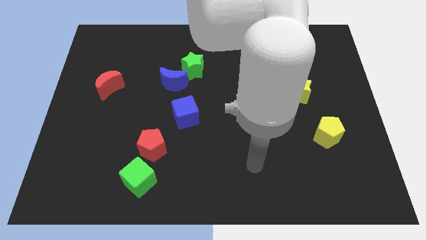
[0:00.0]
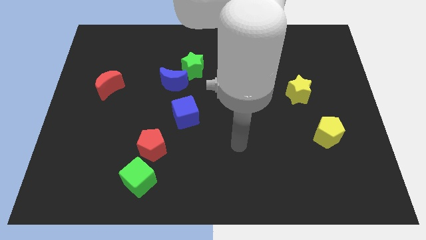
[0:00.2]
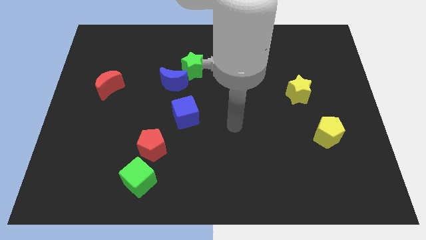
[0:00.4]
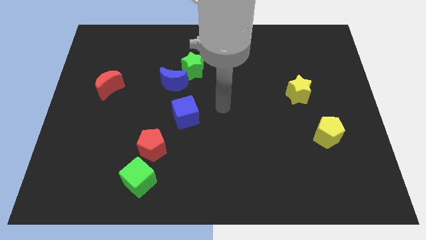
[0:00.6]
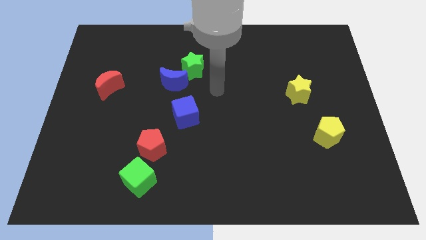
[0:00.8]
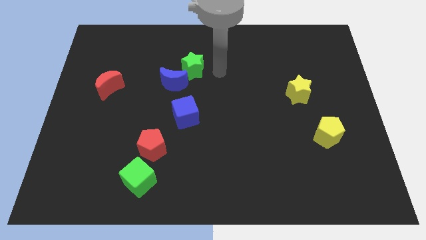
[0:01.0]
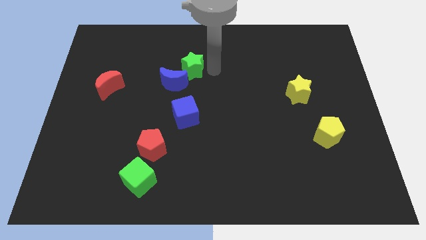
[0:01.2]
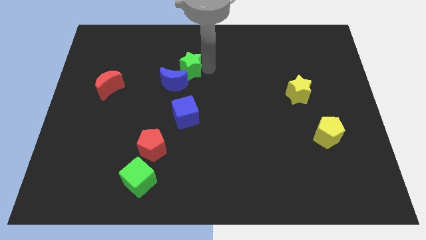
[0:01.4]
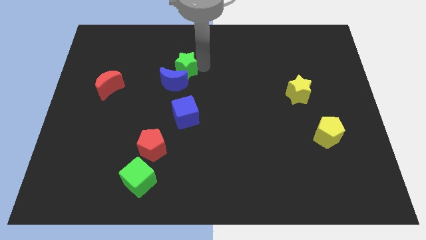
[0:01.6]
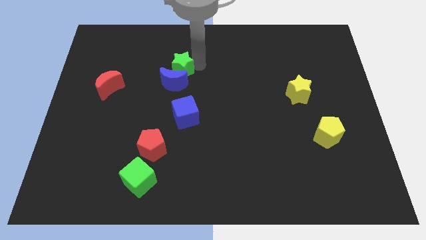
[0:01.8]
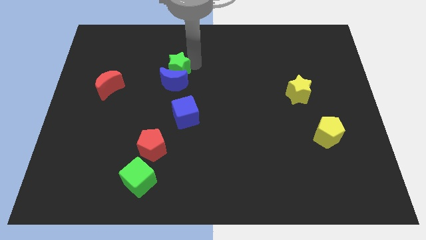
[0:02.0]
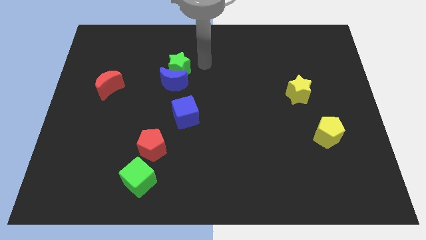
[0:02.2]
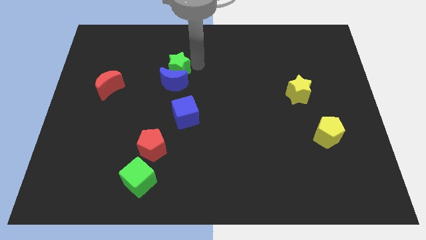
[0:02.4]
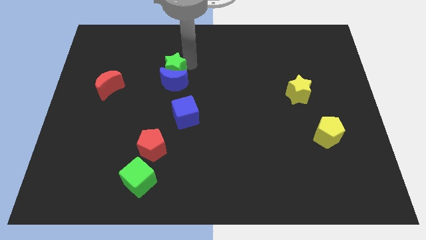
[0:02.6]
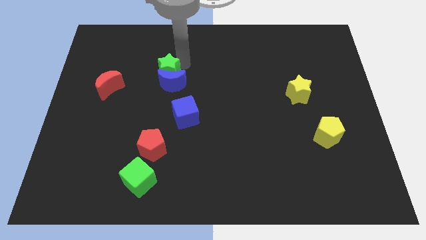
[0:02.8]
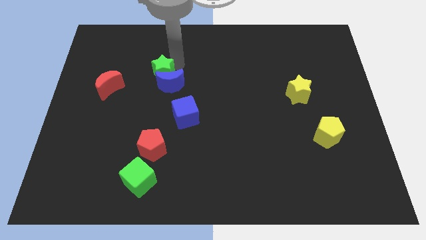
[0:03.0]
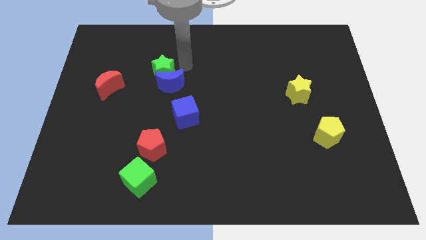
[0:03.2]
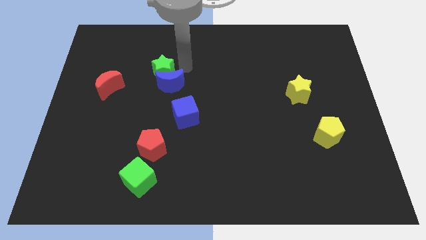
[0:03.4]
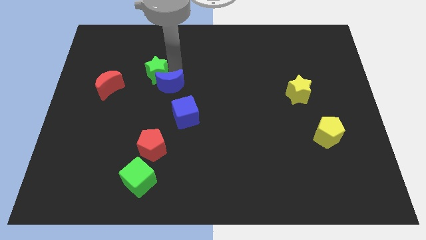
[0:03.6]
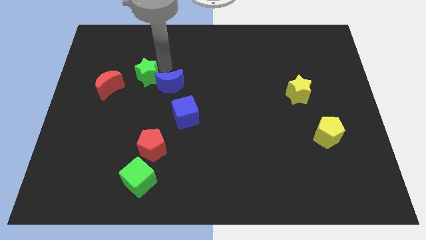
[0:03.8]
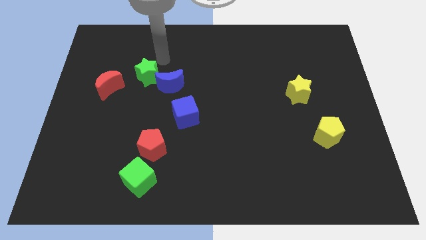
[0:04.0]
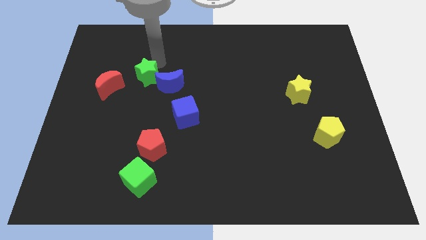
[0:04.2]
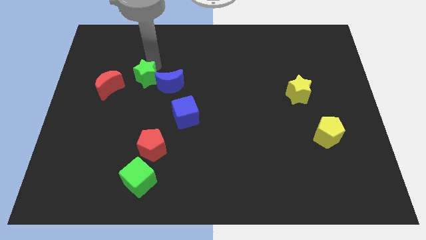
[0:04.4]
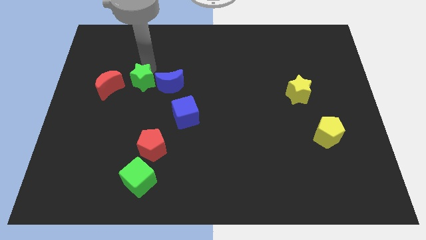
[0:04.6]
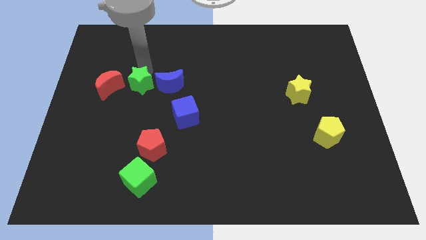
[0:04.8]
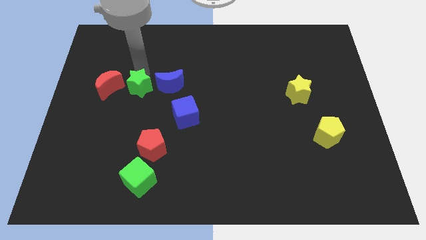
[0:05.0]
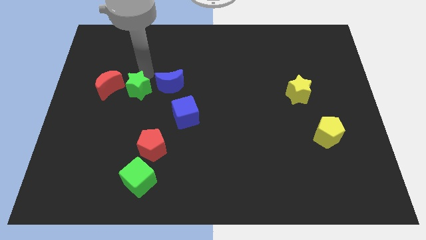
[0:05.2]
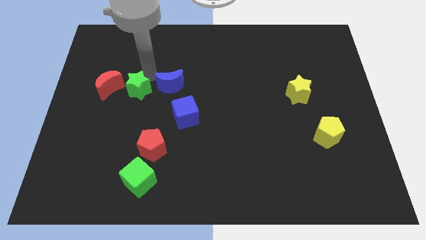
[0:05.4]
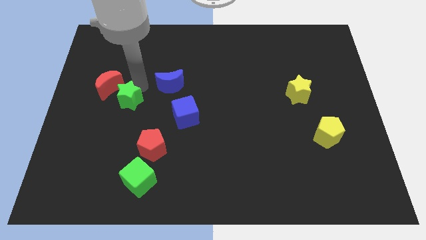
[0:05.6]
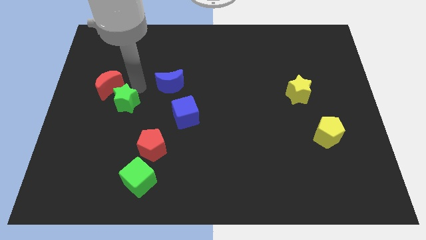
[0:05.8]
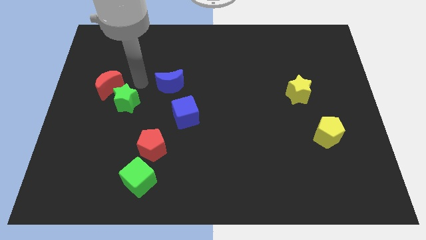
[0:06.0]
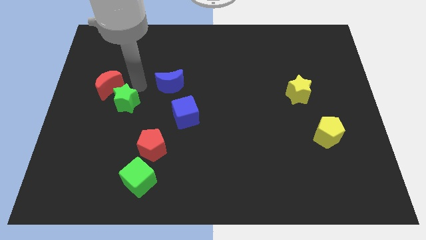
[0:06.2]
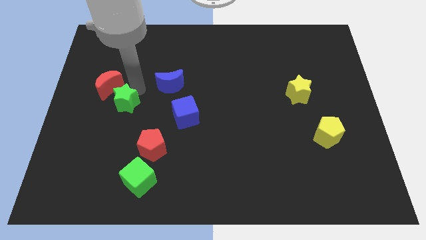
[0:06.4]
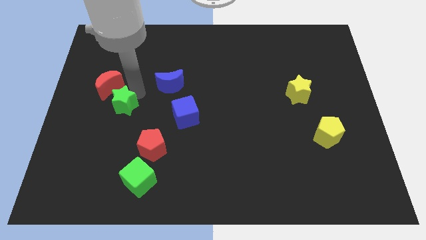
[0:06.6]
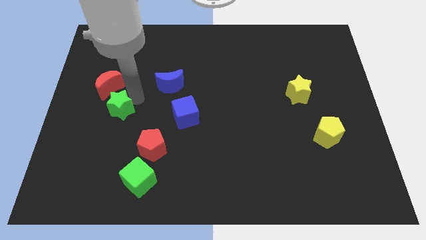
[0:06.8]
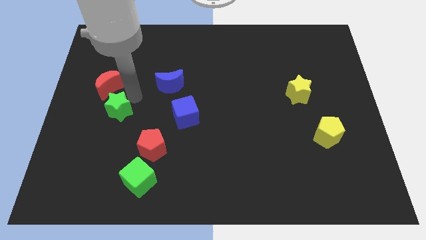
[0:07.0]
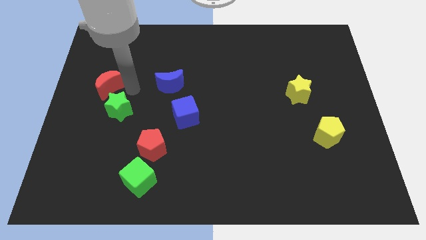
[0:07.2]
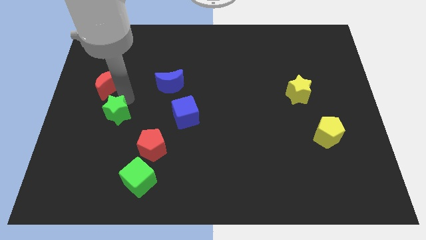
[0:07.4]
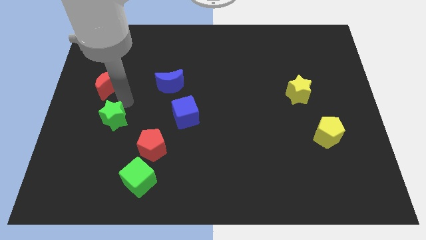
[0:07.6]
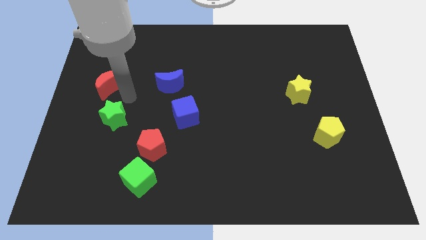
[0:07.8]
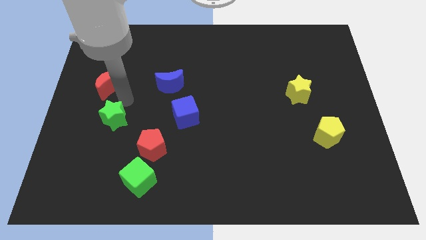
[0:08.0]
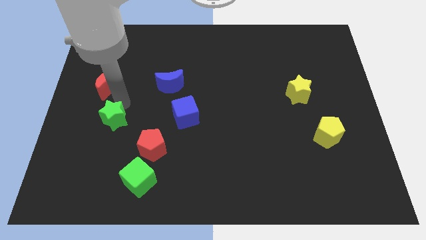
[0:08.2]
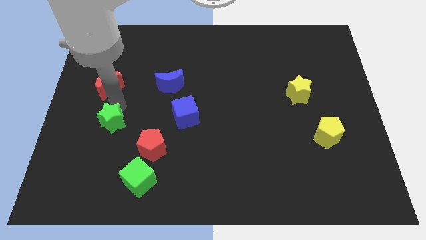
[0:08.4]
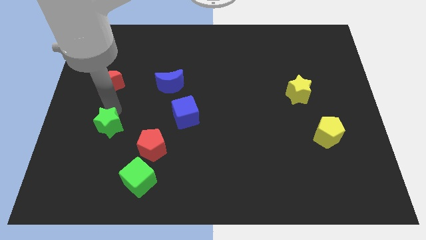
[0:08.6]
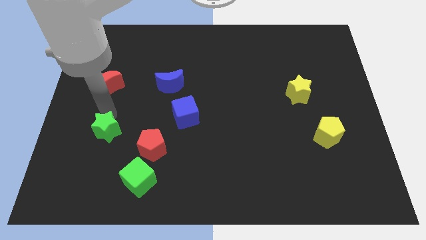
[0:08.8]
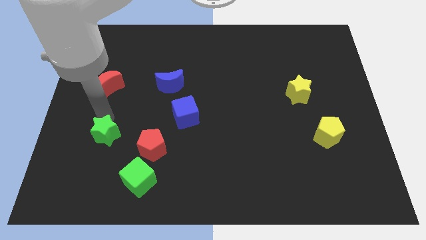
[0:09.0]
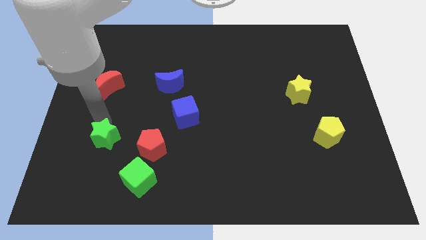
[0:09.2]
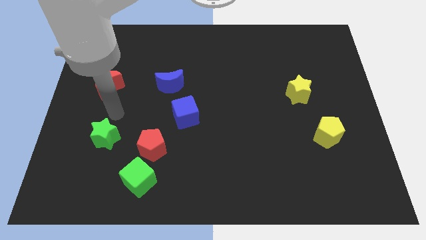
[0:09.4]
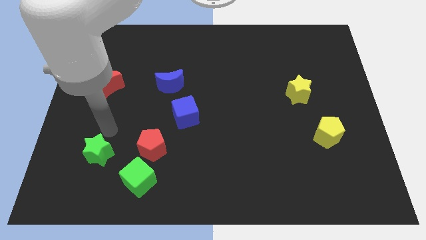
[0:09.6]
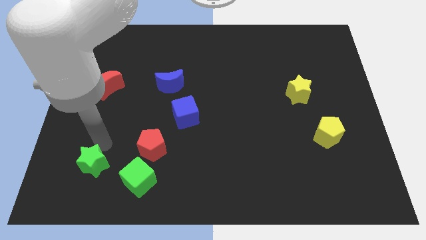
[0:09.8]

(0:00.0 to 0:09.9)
push the green star to the left of the green cube

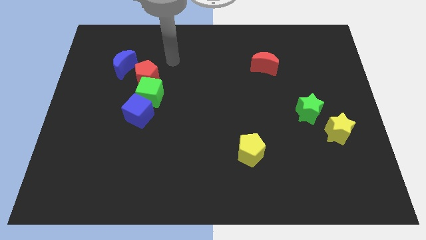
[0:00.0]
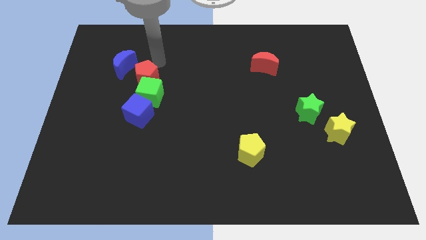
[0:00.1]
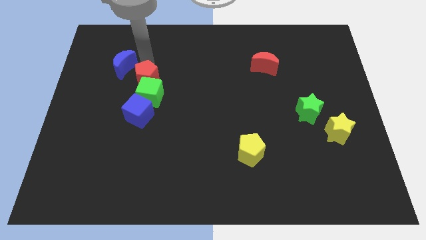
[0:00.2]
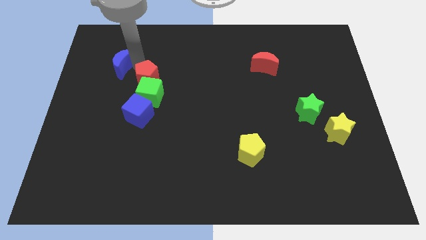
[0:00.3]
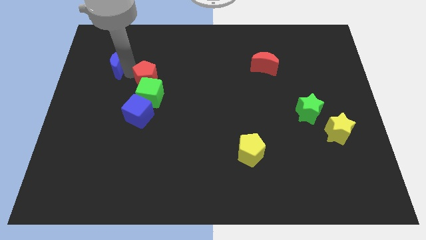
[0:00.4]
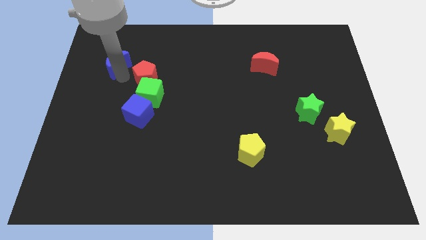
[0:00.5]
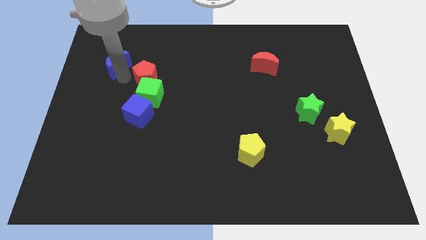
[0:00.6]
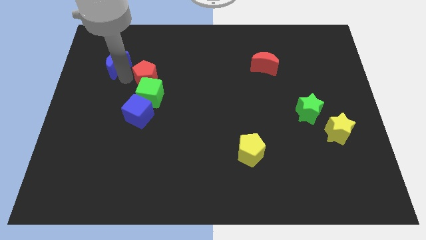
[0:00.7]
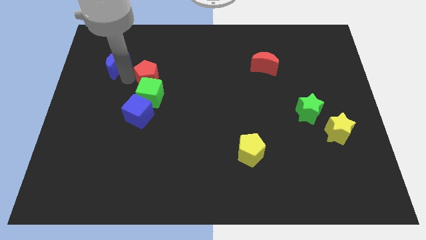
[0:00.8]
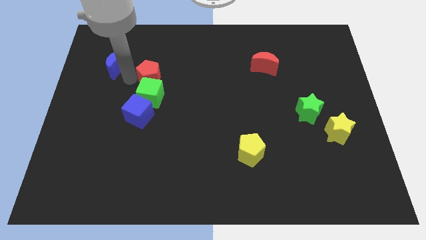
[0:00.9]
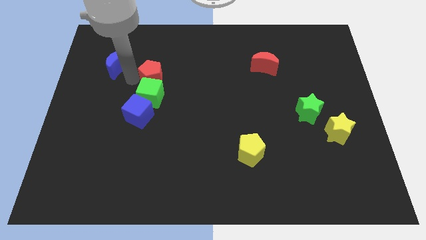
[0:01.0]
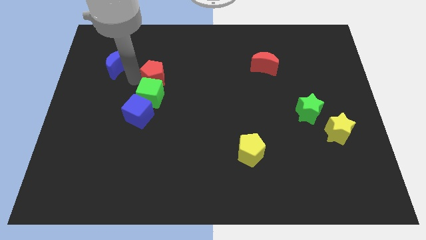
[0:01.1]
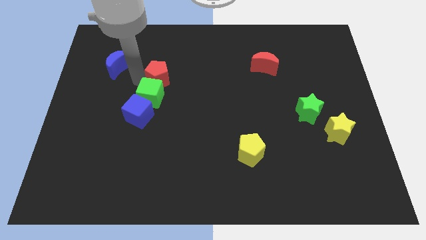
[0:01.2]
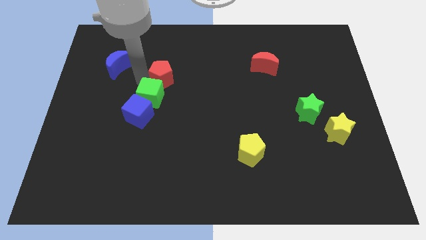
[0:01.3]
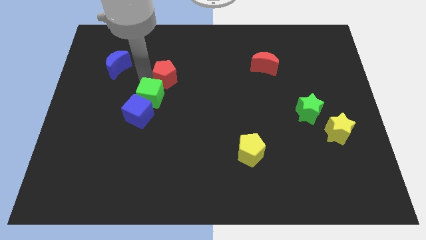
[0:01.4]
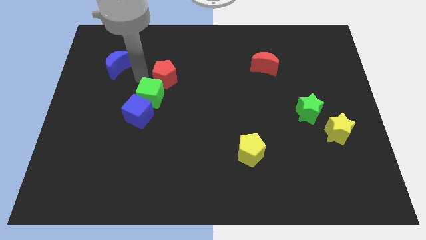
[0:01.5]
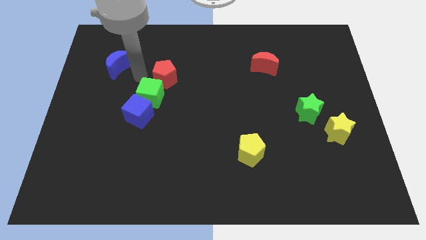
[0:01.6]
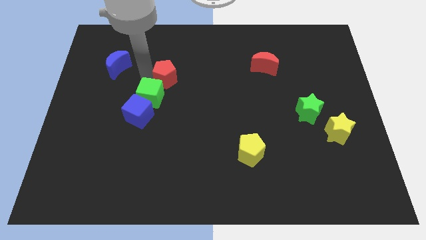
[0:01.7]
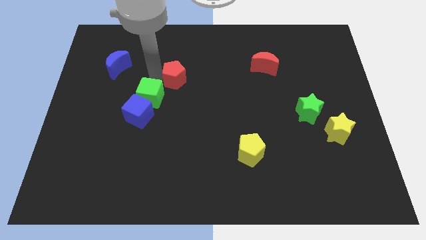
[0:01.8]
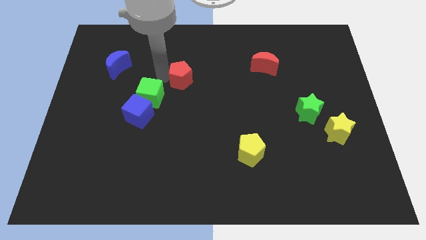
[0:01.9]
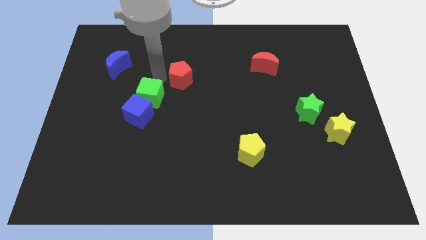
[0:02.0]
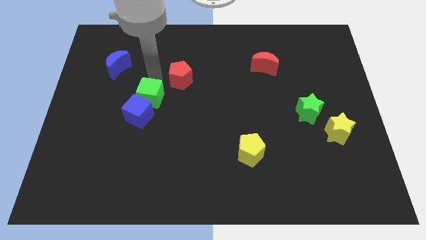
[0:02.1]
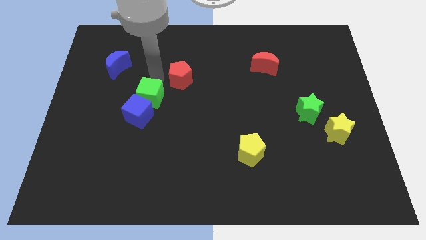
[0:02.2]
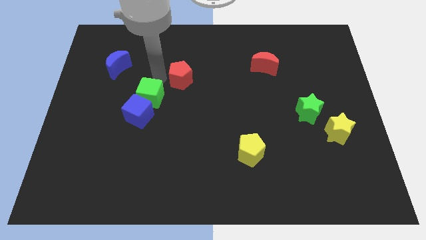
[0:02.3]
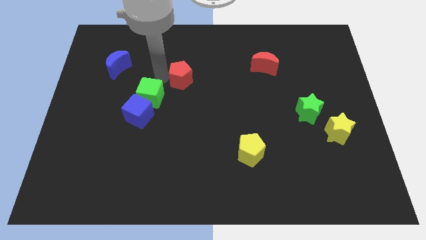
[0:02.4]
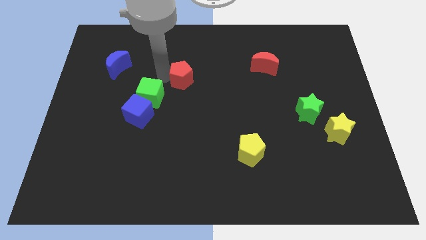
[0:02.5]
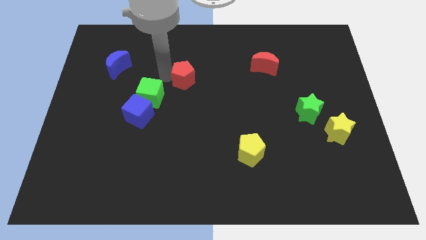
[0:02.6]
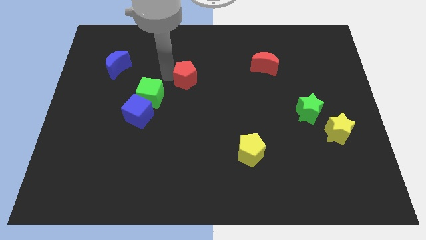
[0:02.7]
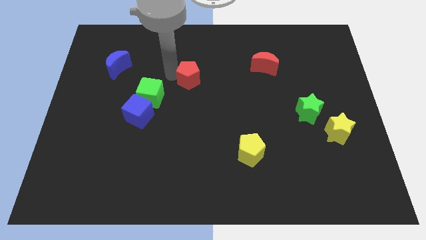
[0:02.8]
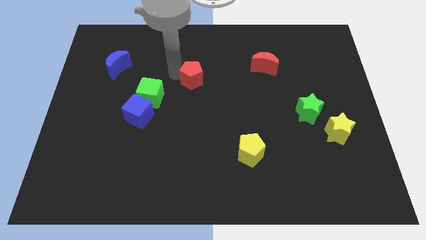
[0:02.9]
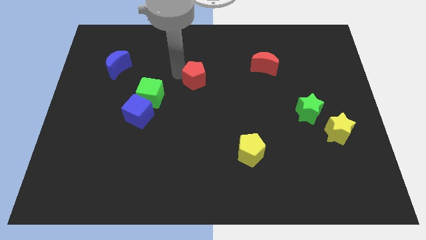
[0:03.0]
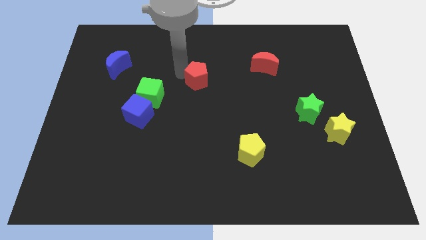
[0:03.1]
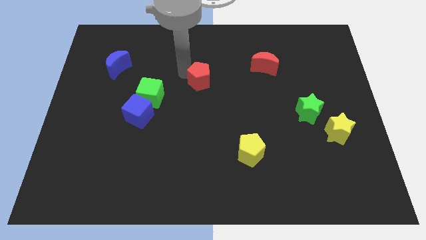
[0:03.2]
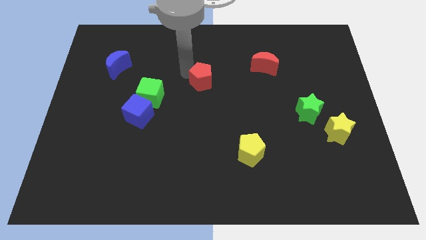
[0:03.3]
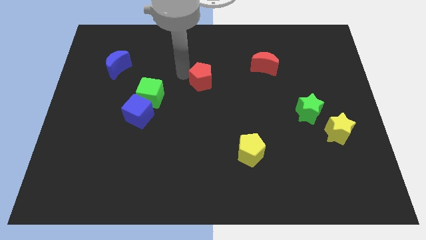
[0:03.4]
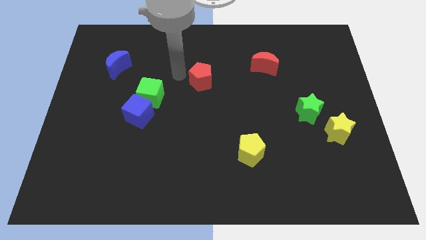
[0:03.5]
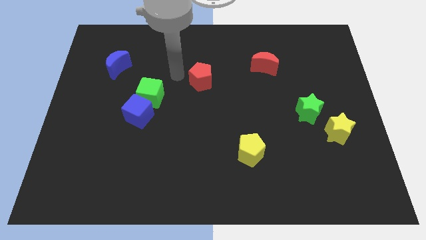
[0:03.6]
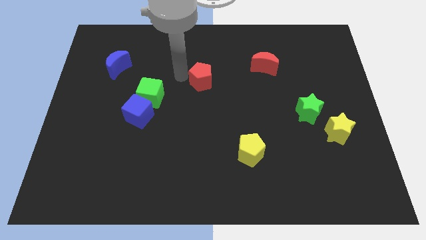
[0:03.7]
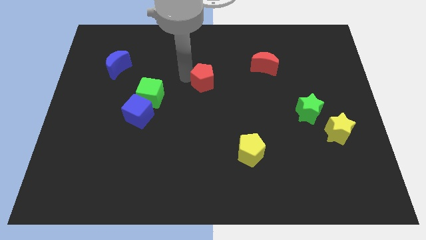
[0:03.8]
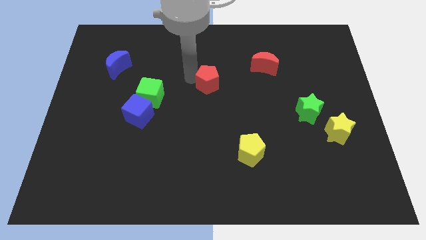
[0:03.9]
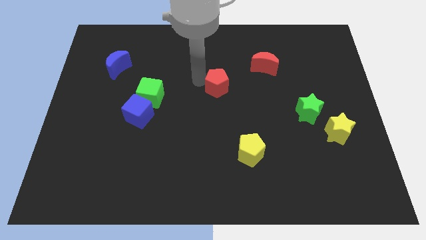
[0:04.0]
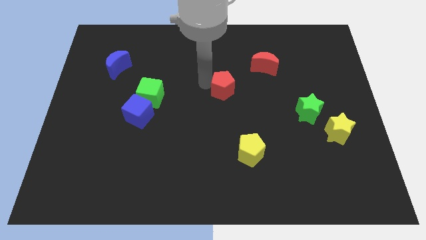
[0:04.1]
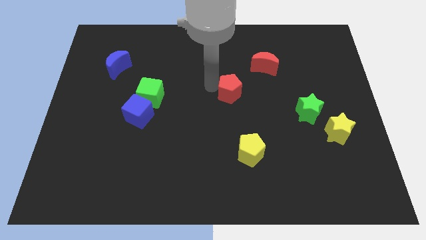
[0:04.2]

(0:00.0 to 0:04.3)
slide the red pentagon to the bottom left side of the red moon
